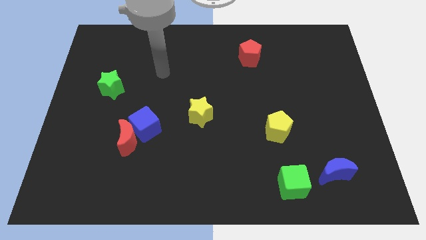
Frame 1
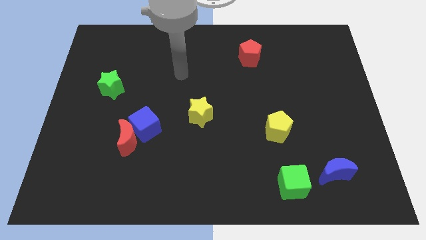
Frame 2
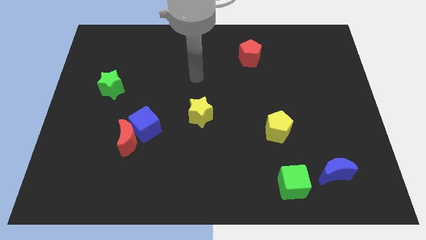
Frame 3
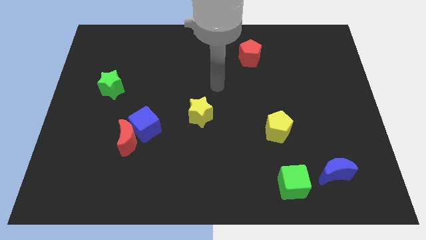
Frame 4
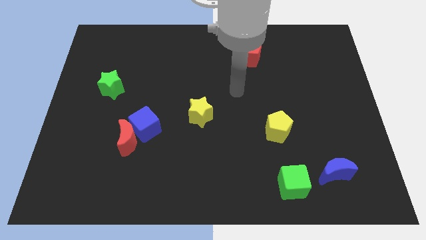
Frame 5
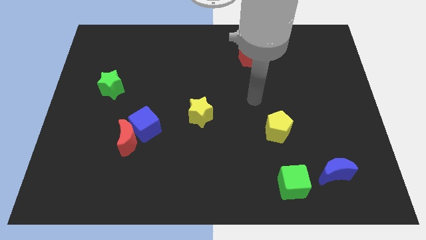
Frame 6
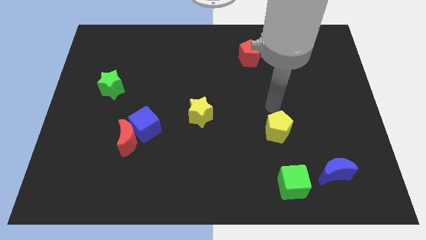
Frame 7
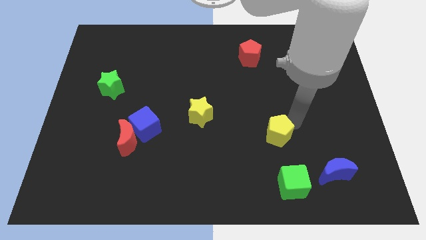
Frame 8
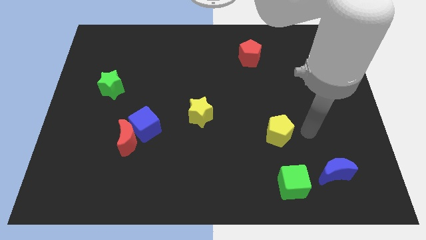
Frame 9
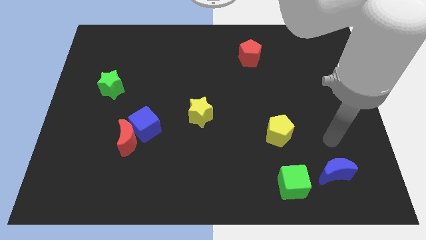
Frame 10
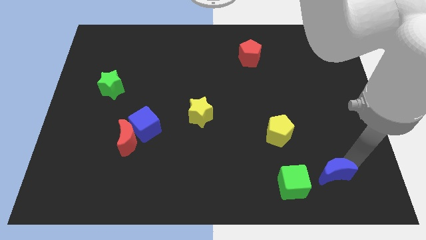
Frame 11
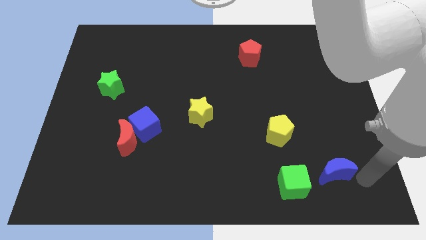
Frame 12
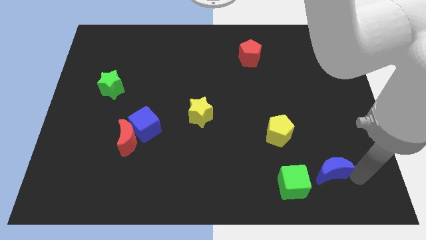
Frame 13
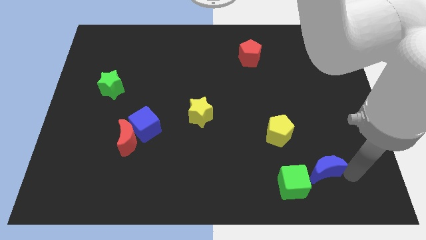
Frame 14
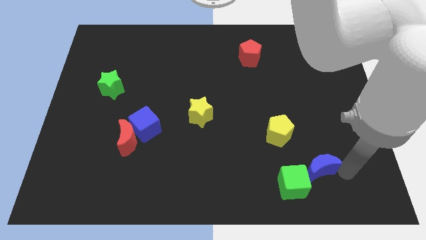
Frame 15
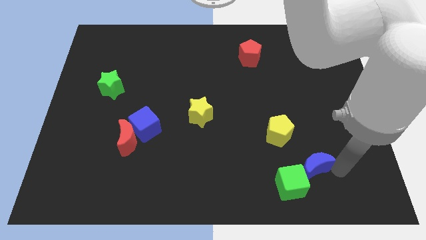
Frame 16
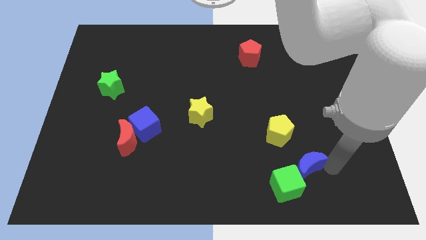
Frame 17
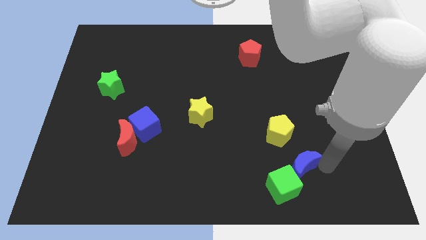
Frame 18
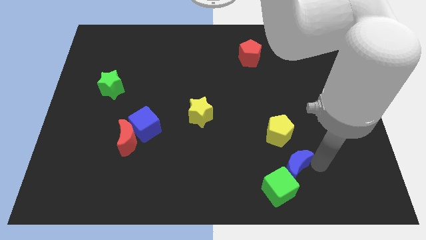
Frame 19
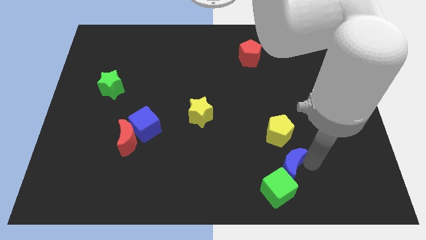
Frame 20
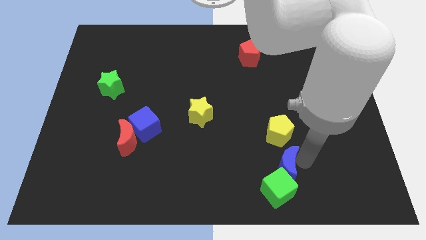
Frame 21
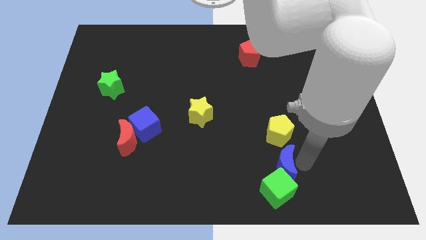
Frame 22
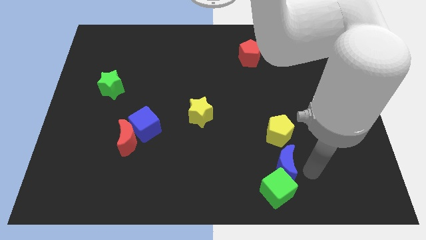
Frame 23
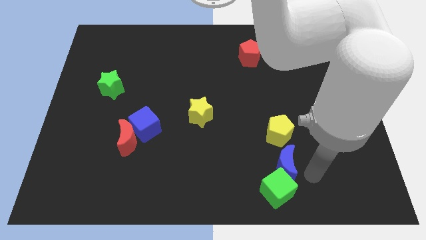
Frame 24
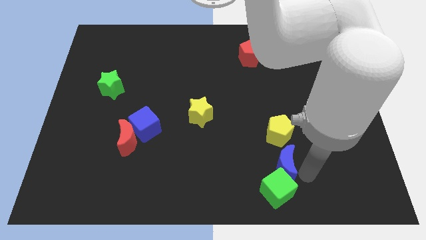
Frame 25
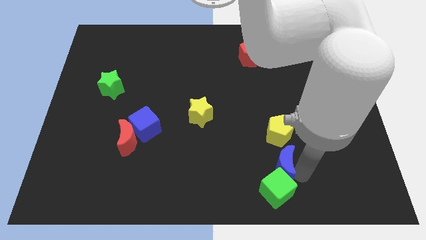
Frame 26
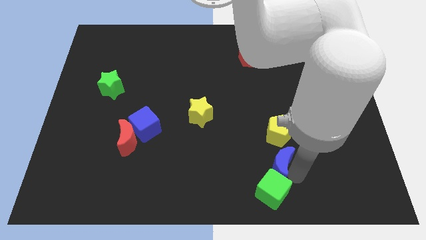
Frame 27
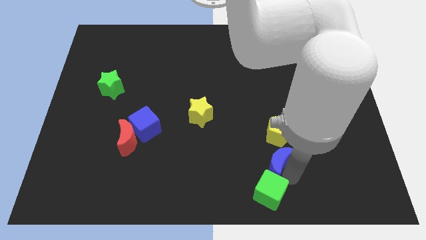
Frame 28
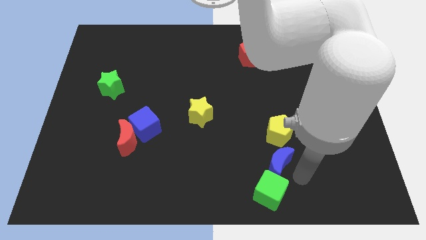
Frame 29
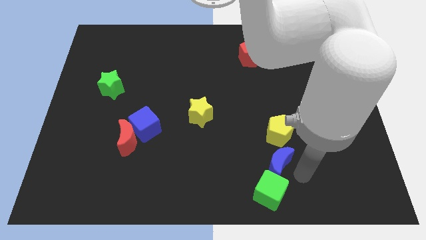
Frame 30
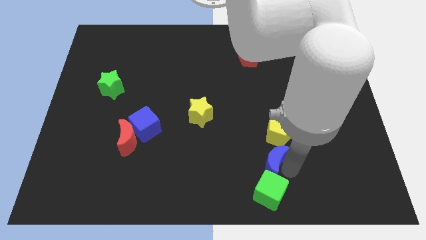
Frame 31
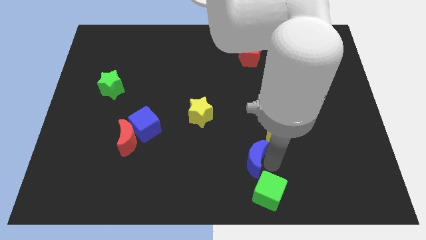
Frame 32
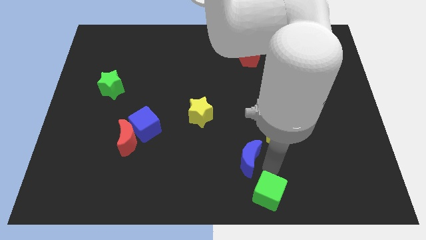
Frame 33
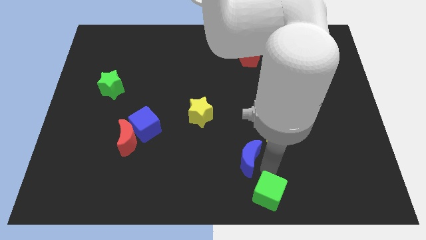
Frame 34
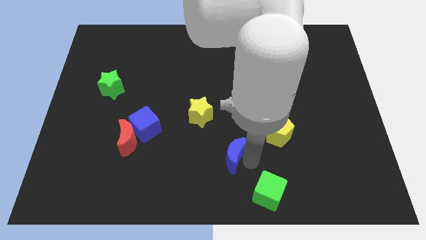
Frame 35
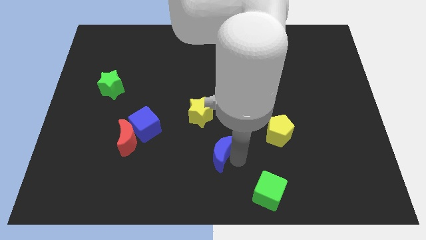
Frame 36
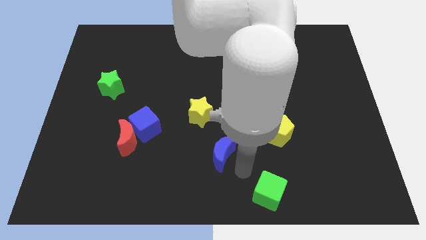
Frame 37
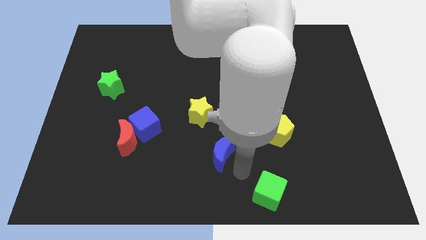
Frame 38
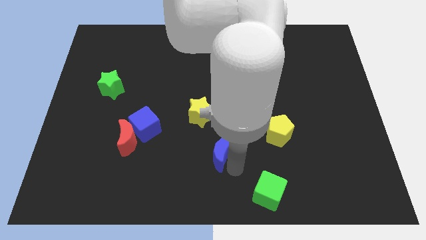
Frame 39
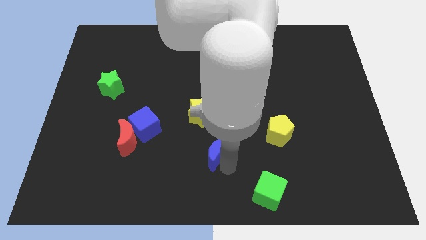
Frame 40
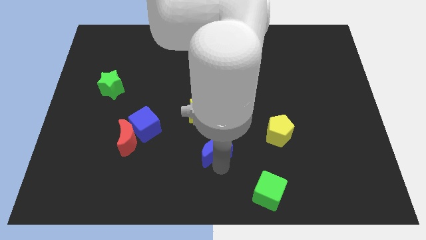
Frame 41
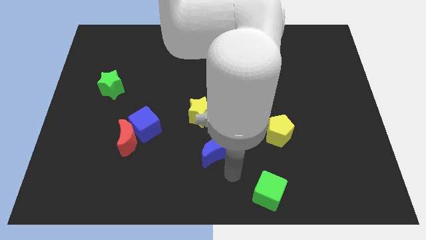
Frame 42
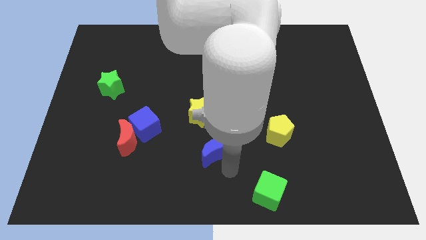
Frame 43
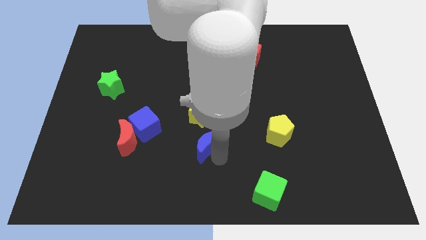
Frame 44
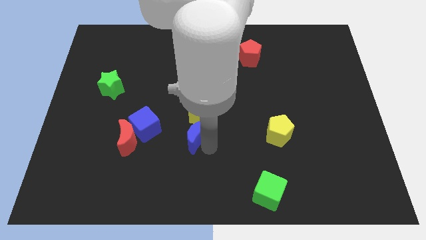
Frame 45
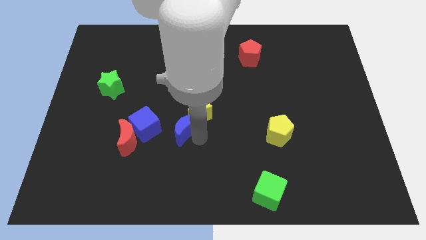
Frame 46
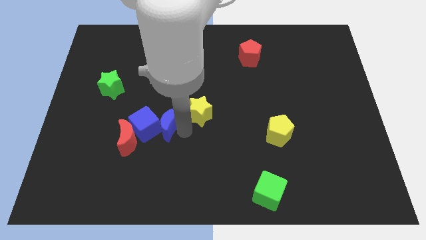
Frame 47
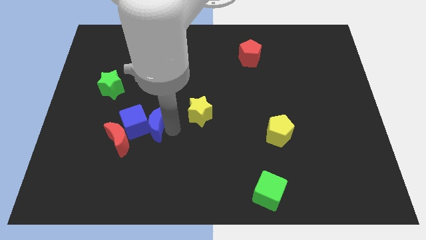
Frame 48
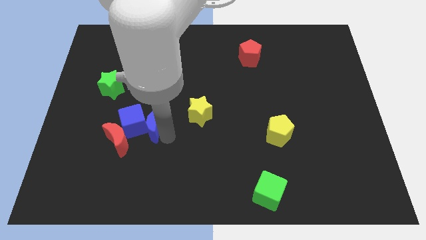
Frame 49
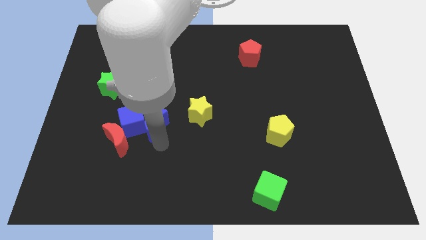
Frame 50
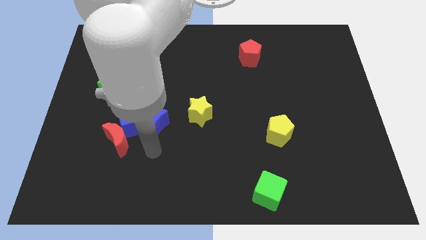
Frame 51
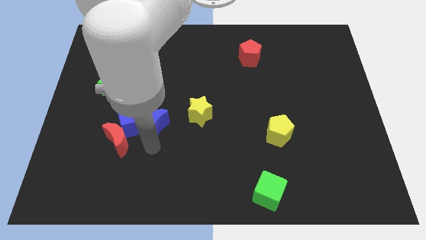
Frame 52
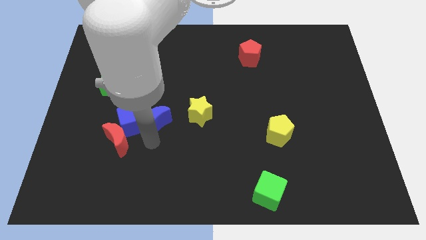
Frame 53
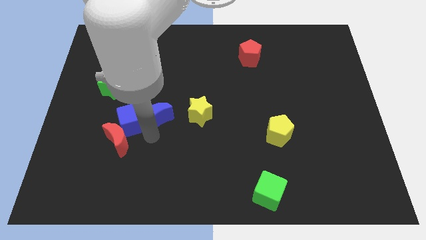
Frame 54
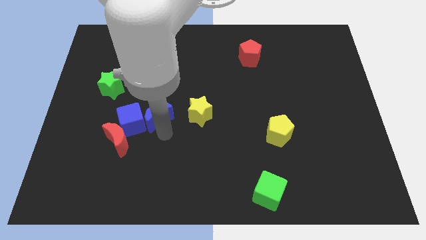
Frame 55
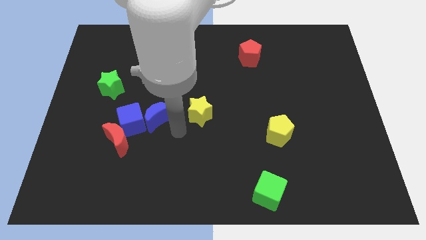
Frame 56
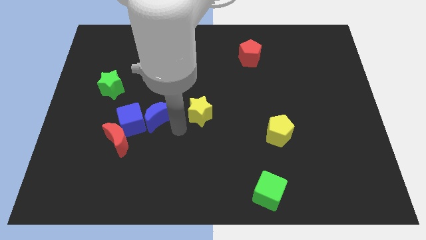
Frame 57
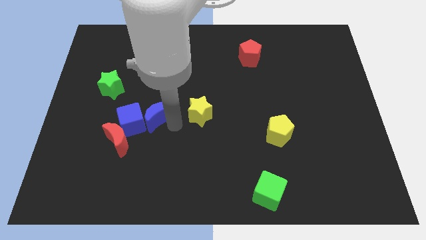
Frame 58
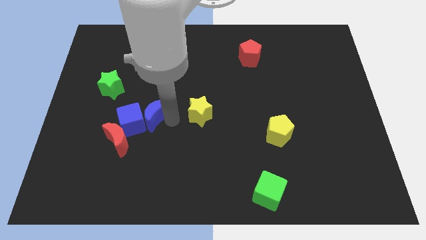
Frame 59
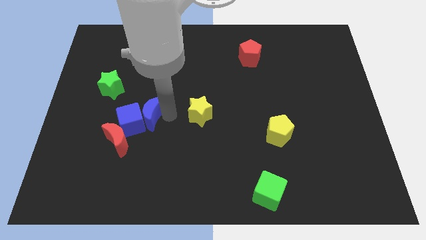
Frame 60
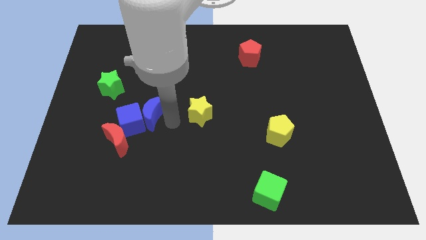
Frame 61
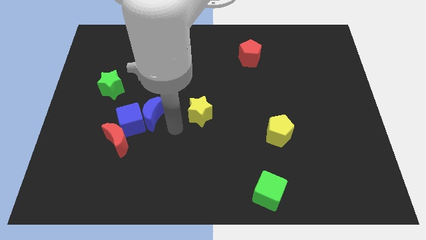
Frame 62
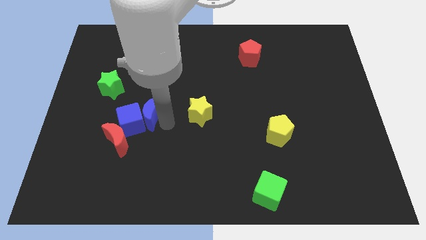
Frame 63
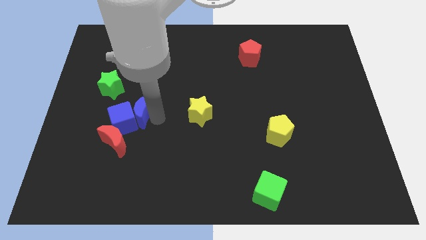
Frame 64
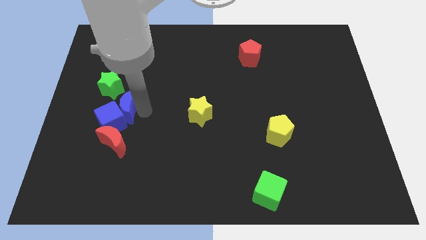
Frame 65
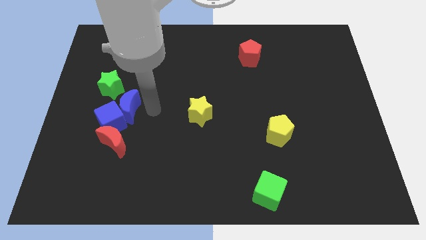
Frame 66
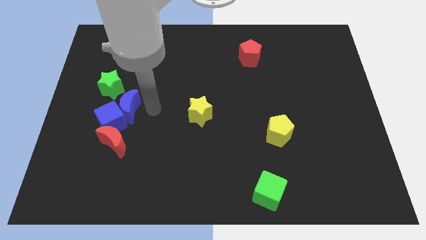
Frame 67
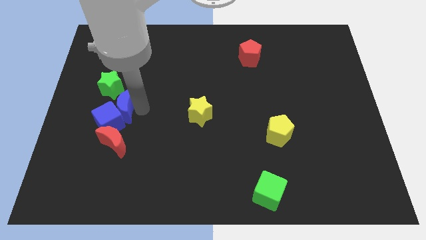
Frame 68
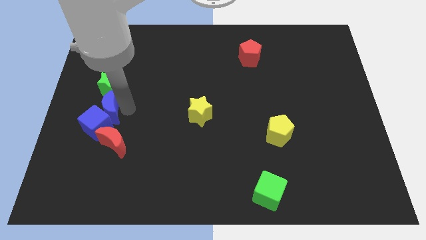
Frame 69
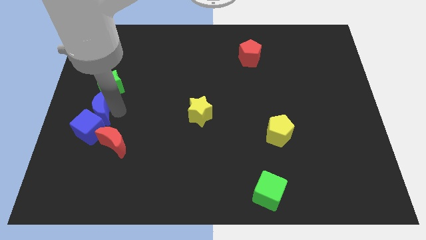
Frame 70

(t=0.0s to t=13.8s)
move the blue moon to the left side
